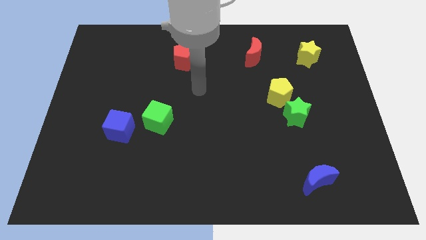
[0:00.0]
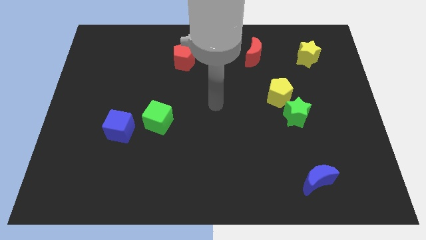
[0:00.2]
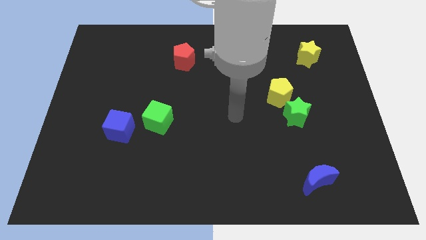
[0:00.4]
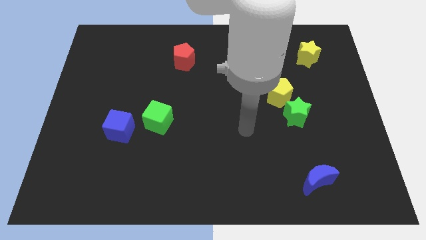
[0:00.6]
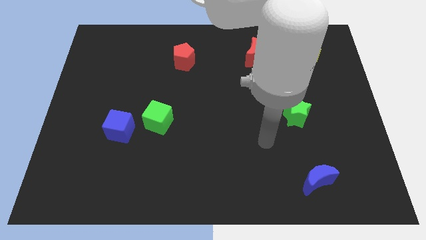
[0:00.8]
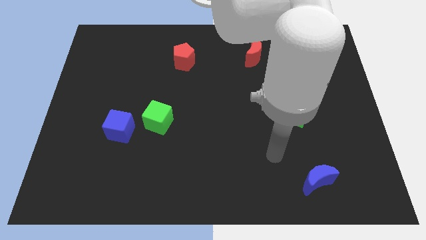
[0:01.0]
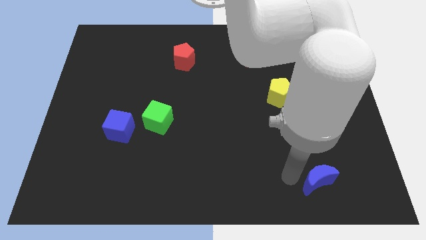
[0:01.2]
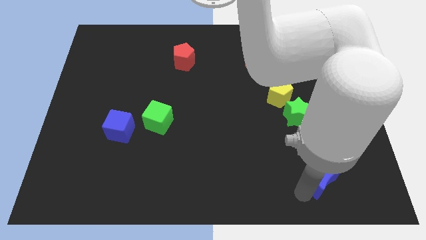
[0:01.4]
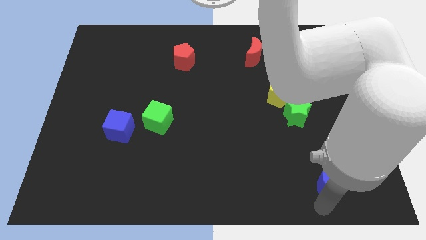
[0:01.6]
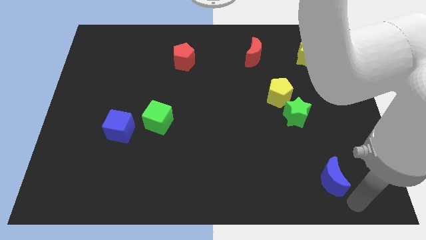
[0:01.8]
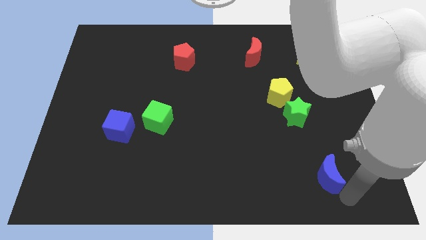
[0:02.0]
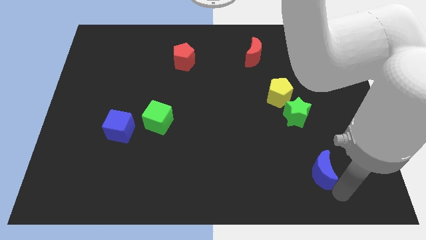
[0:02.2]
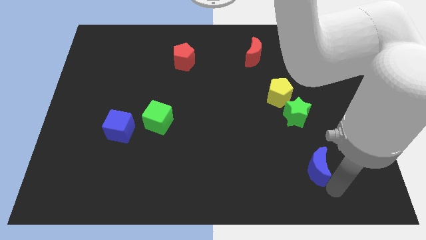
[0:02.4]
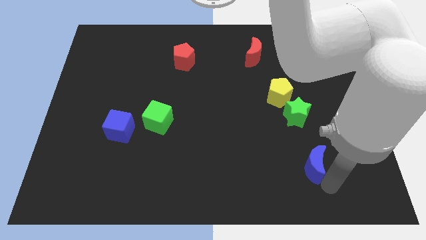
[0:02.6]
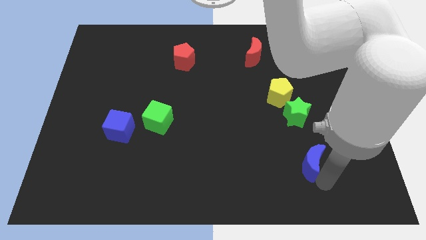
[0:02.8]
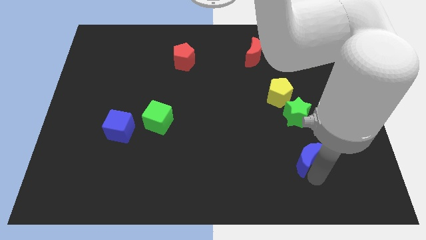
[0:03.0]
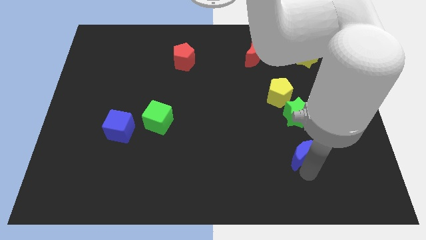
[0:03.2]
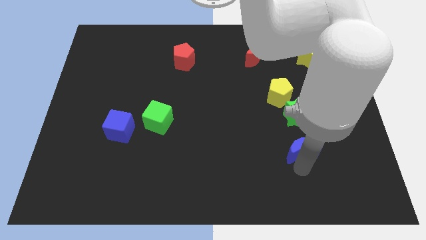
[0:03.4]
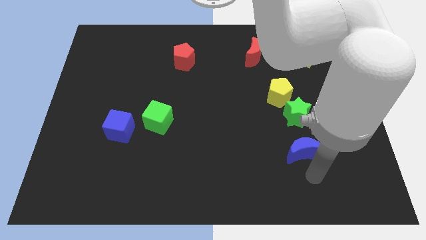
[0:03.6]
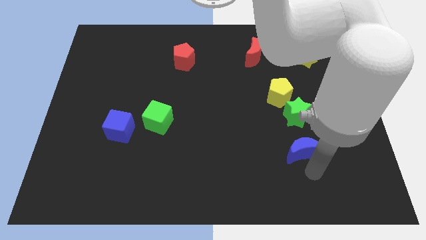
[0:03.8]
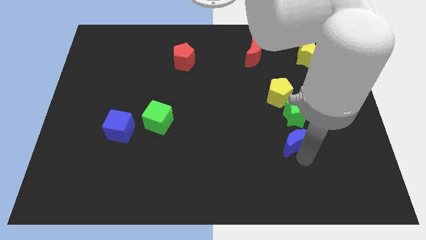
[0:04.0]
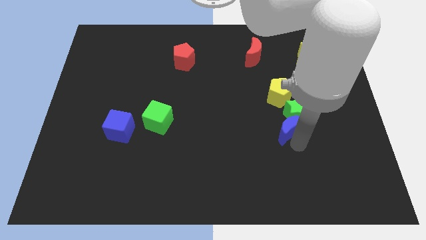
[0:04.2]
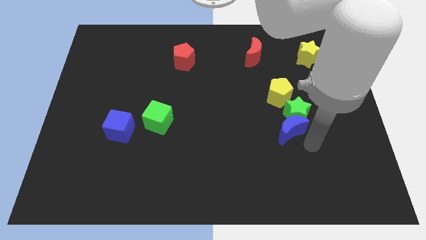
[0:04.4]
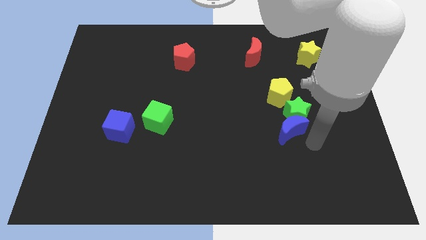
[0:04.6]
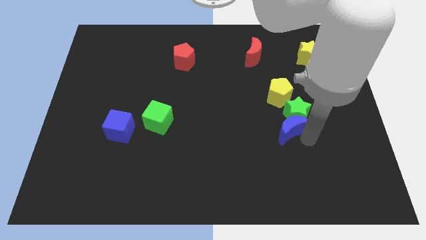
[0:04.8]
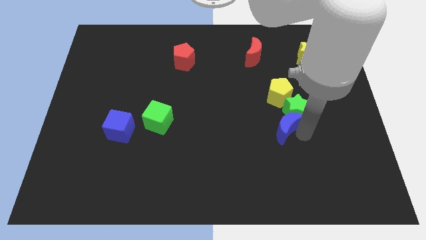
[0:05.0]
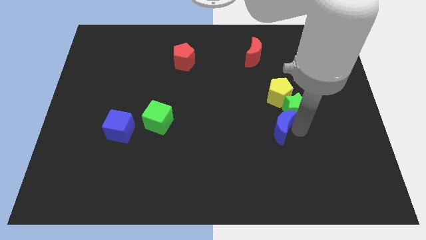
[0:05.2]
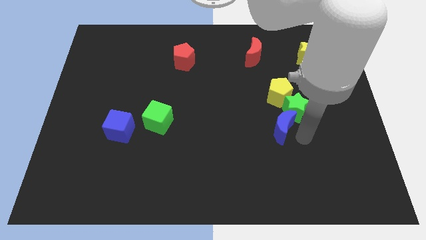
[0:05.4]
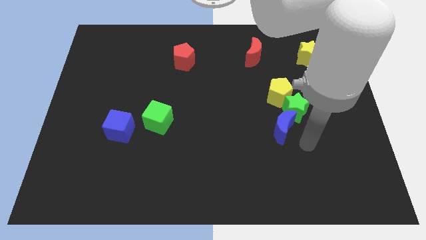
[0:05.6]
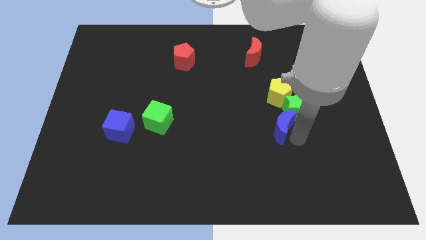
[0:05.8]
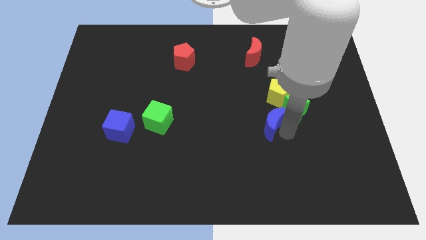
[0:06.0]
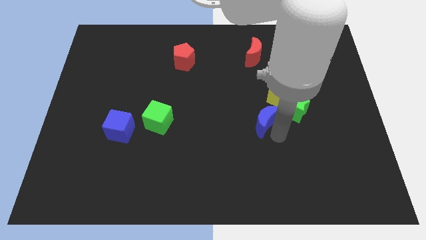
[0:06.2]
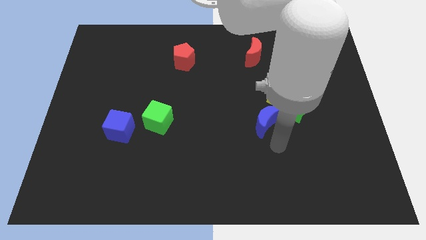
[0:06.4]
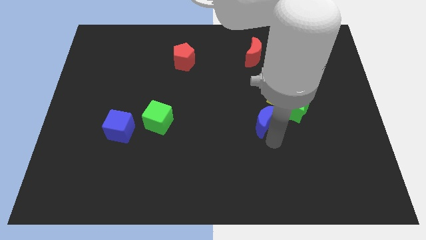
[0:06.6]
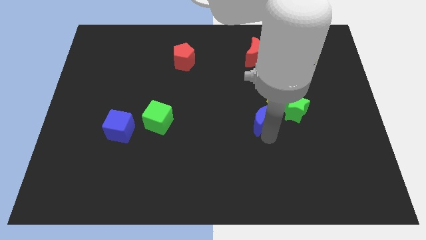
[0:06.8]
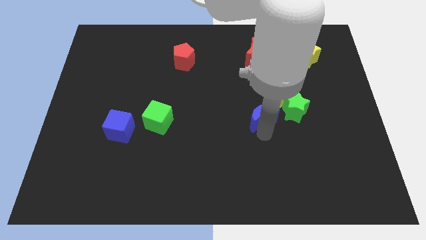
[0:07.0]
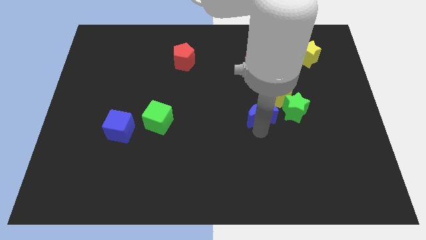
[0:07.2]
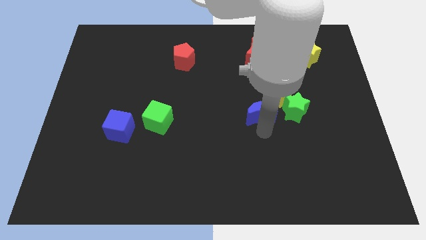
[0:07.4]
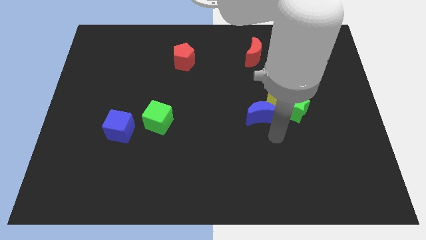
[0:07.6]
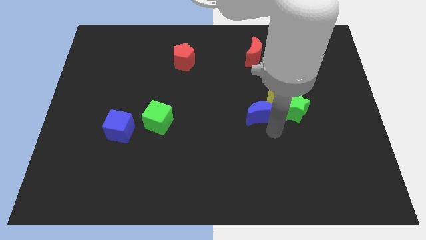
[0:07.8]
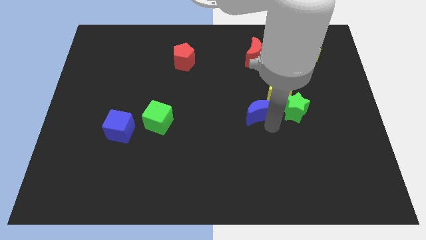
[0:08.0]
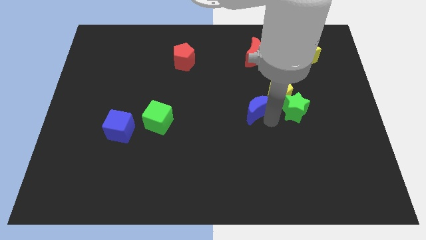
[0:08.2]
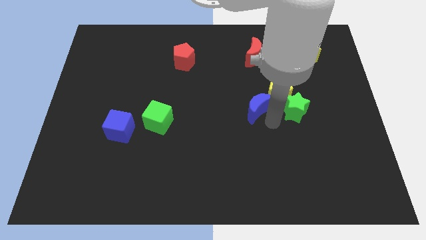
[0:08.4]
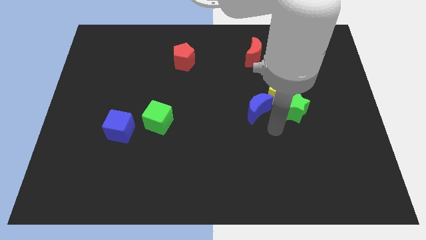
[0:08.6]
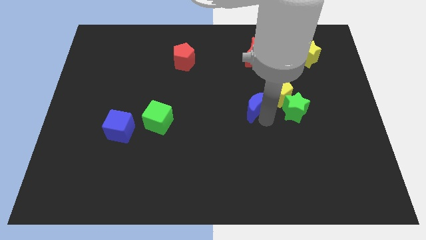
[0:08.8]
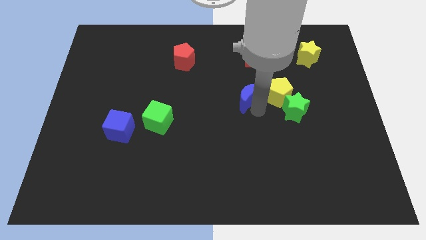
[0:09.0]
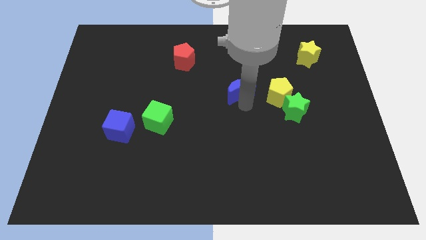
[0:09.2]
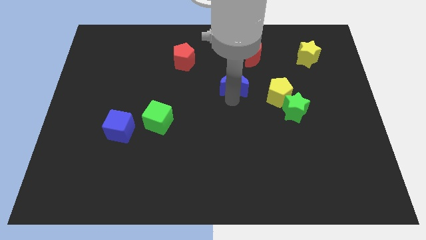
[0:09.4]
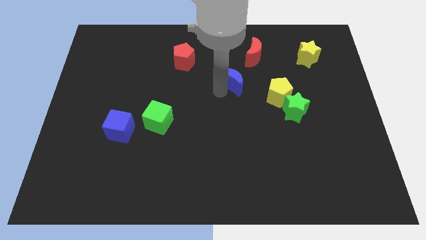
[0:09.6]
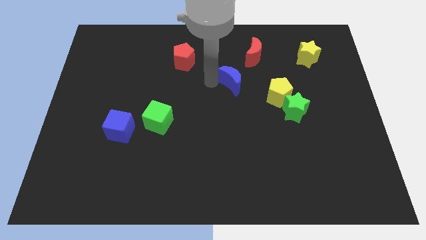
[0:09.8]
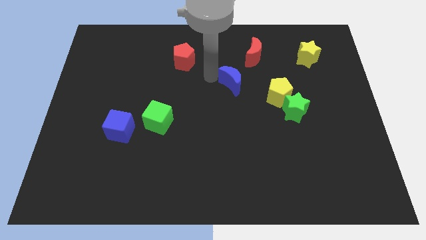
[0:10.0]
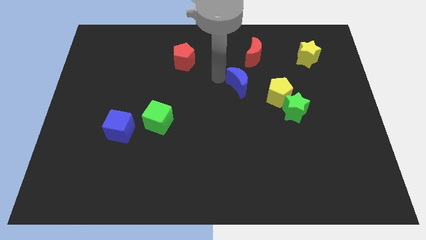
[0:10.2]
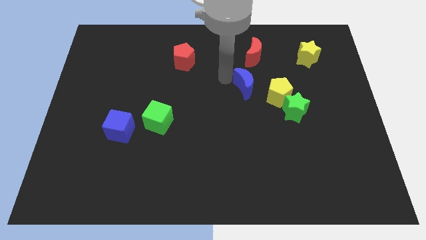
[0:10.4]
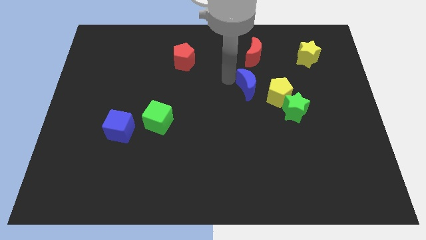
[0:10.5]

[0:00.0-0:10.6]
move the blue moon to the top left of the green star

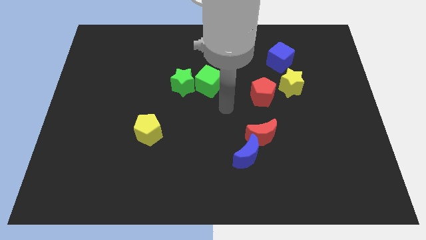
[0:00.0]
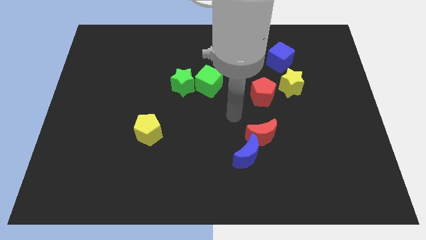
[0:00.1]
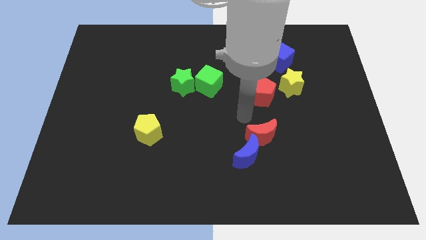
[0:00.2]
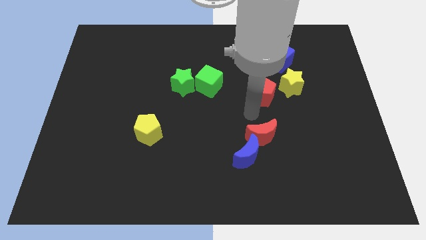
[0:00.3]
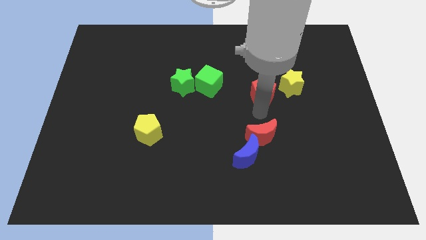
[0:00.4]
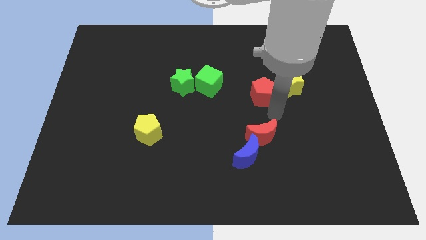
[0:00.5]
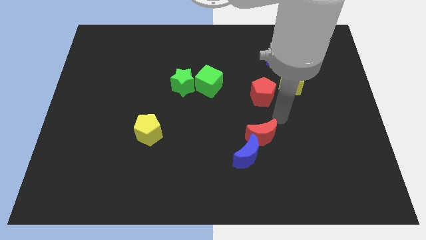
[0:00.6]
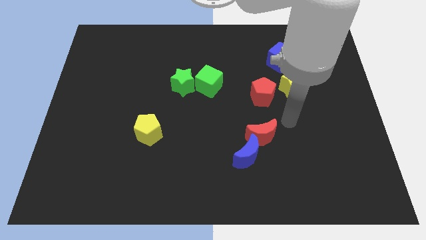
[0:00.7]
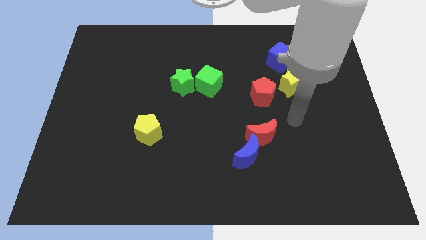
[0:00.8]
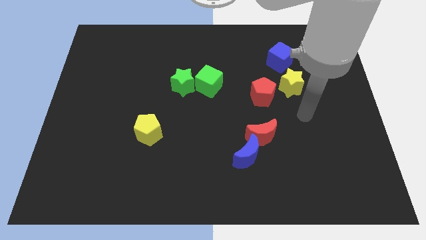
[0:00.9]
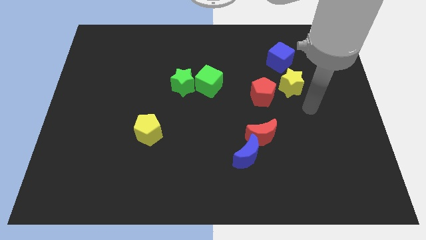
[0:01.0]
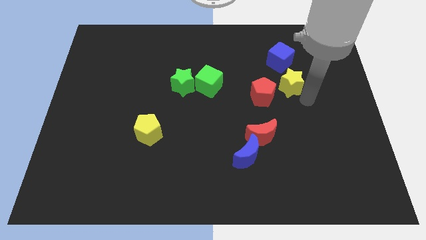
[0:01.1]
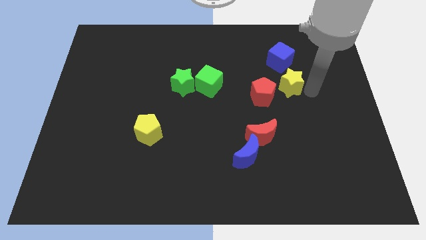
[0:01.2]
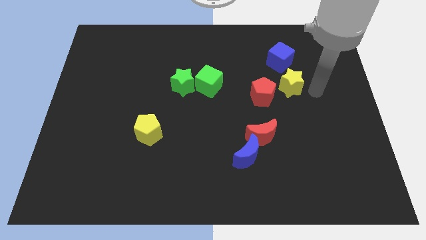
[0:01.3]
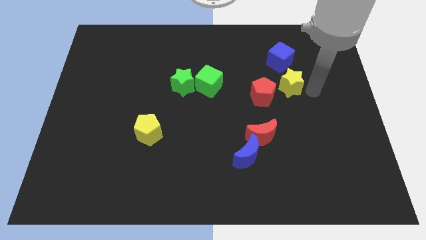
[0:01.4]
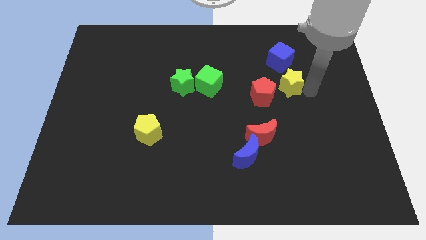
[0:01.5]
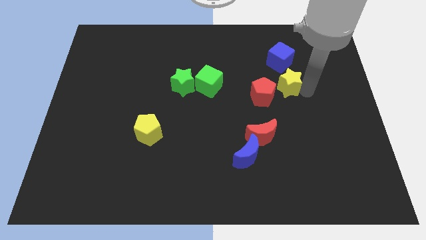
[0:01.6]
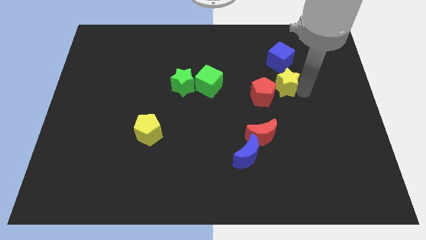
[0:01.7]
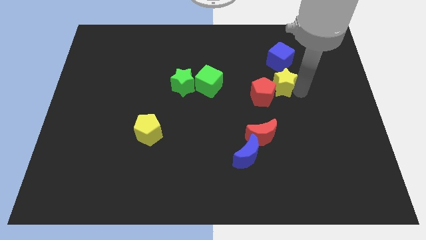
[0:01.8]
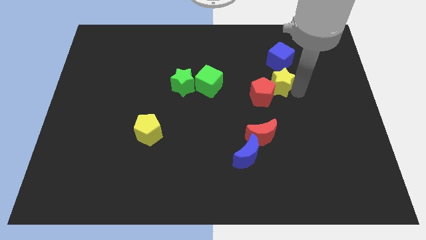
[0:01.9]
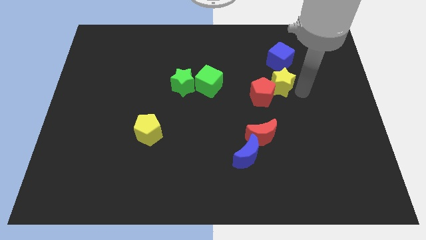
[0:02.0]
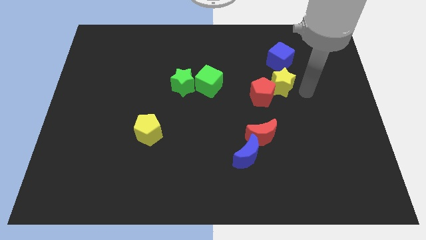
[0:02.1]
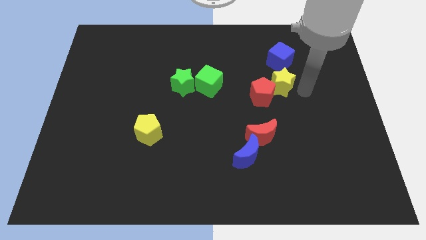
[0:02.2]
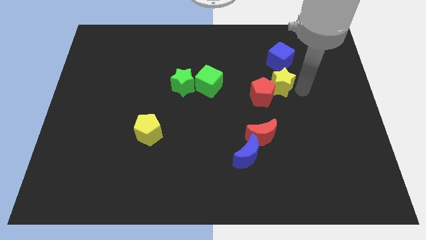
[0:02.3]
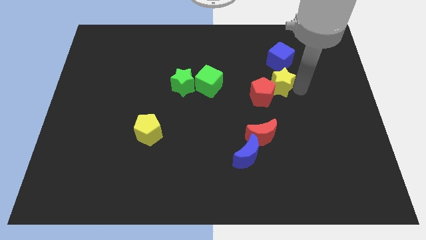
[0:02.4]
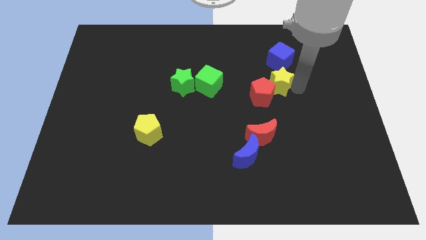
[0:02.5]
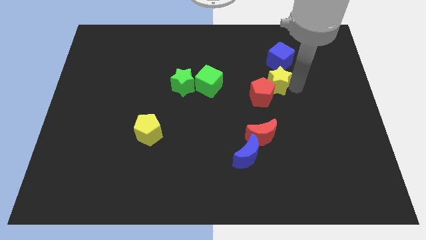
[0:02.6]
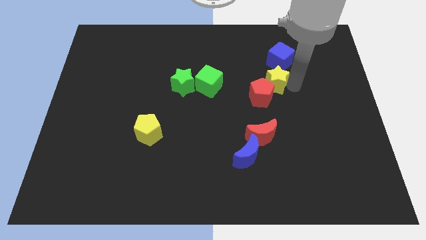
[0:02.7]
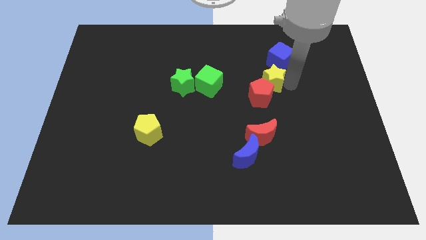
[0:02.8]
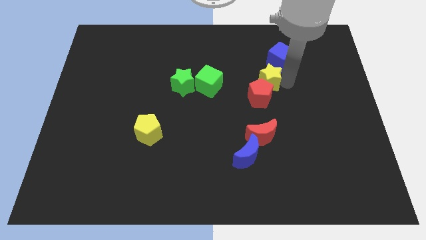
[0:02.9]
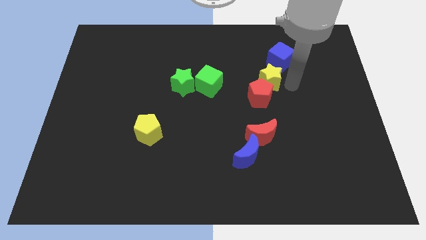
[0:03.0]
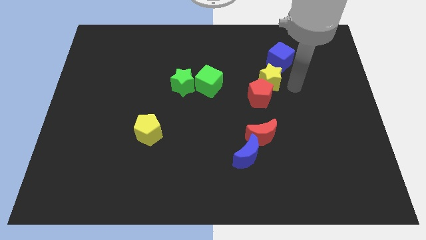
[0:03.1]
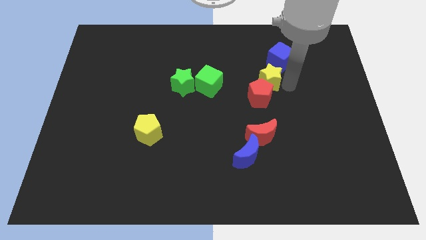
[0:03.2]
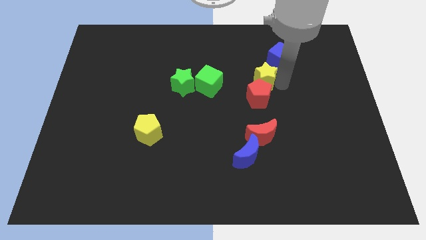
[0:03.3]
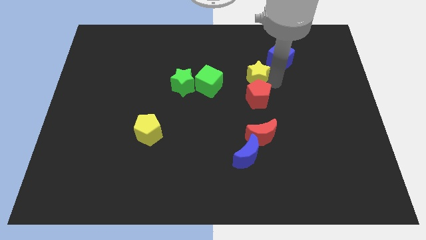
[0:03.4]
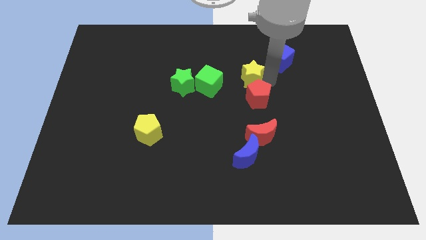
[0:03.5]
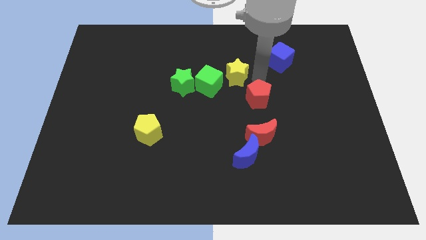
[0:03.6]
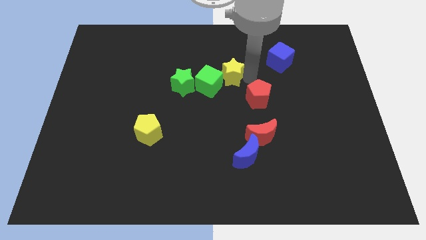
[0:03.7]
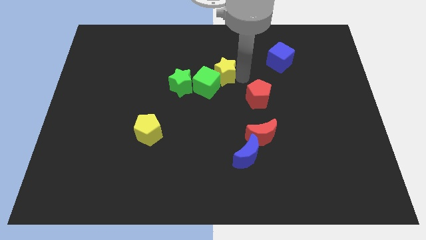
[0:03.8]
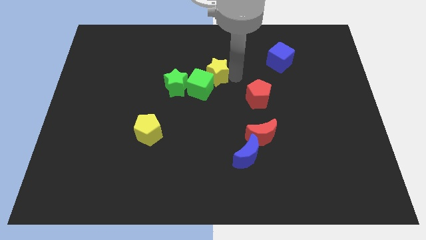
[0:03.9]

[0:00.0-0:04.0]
push the yellow star to the top right side of the green star
